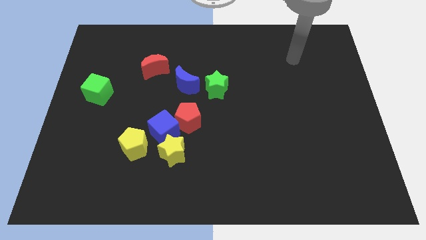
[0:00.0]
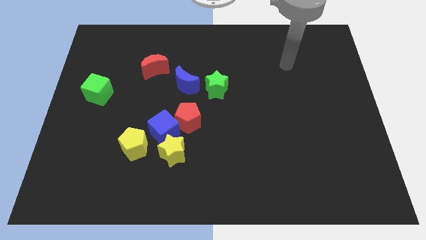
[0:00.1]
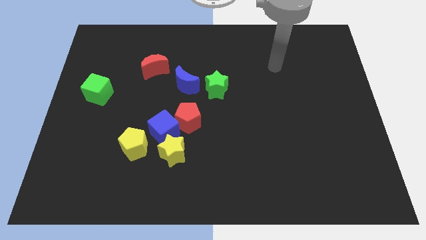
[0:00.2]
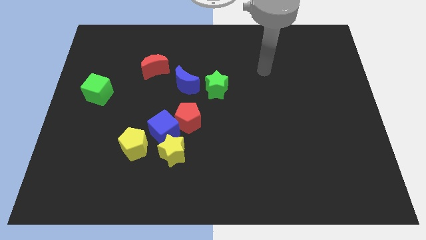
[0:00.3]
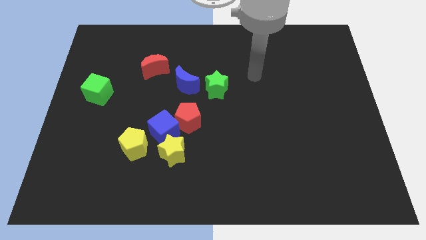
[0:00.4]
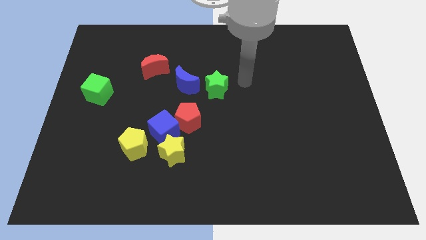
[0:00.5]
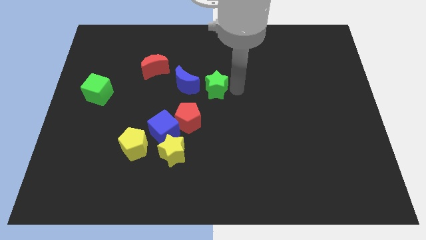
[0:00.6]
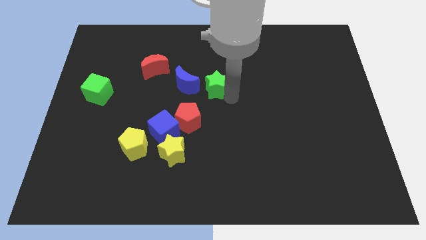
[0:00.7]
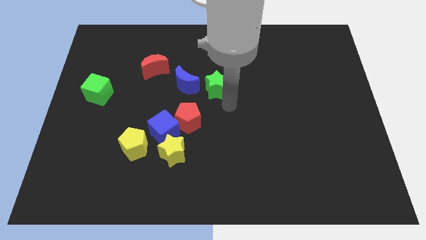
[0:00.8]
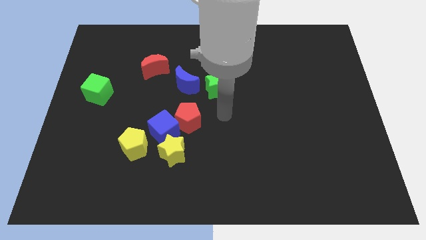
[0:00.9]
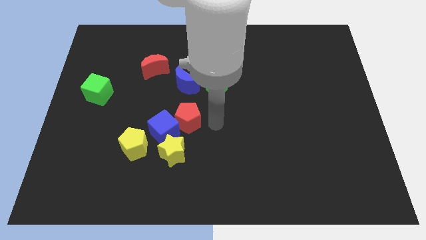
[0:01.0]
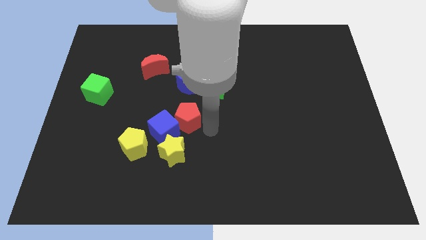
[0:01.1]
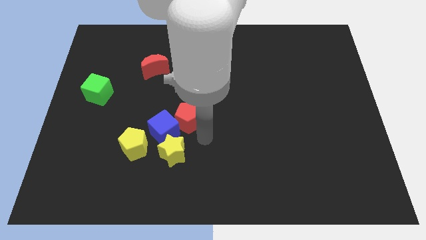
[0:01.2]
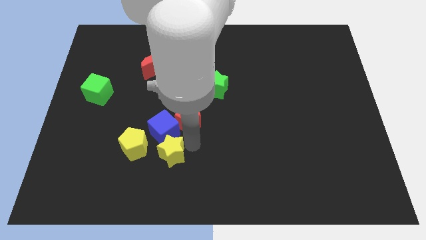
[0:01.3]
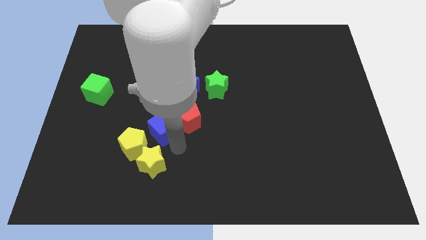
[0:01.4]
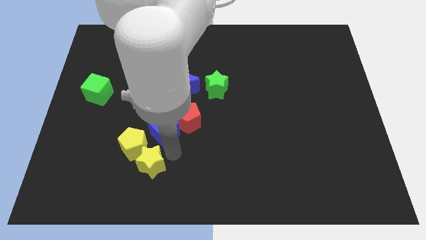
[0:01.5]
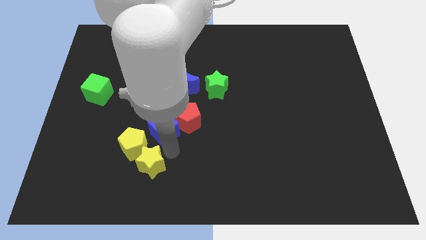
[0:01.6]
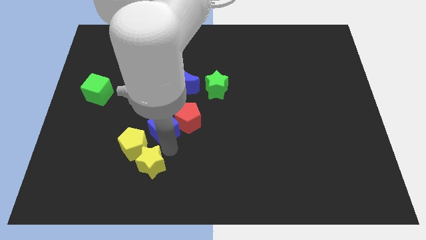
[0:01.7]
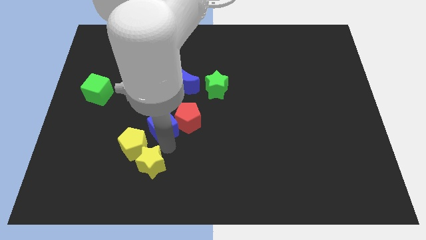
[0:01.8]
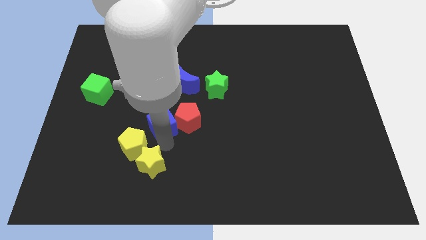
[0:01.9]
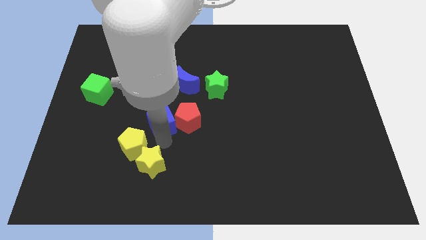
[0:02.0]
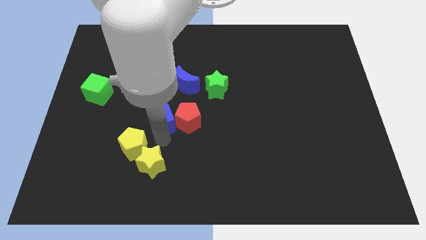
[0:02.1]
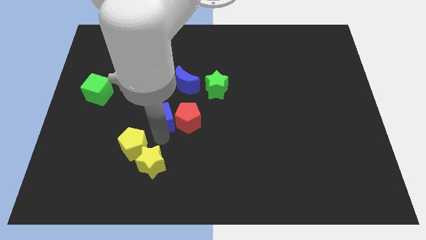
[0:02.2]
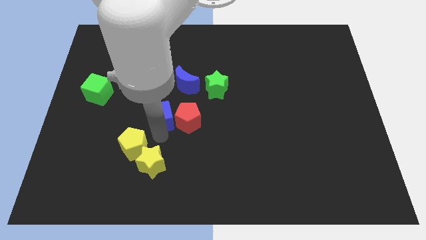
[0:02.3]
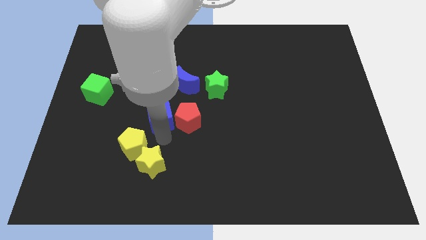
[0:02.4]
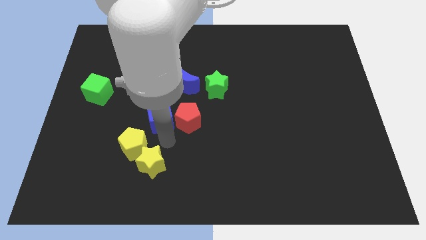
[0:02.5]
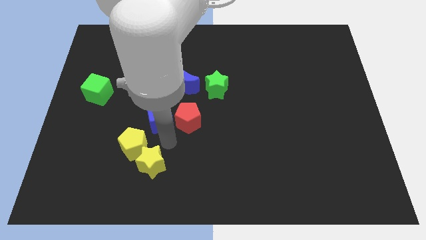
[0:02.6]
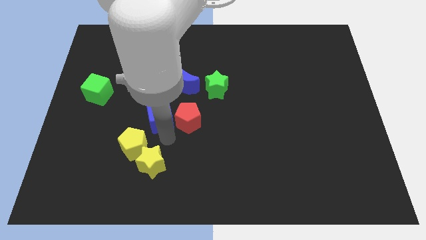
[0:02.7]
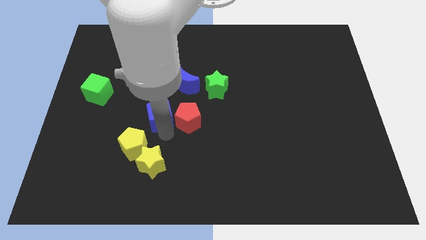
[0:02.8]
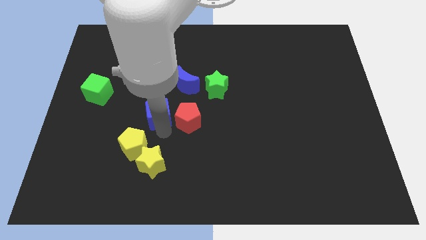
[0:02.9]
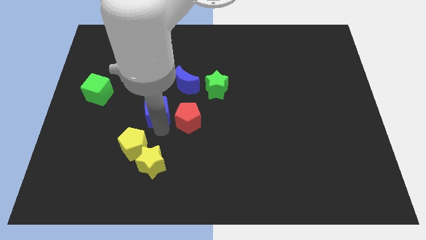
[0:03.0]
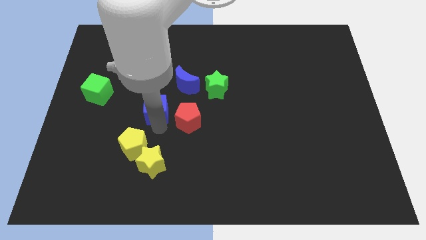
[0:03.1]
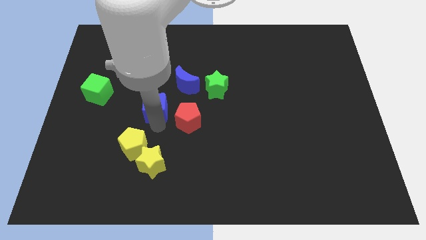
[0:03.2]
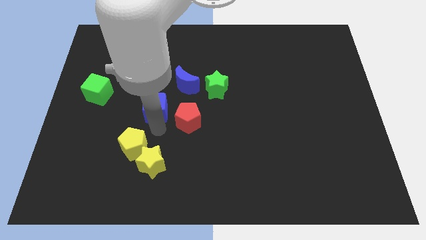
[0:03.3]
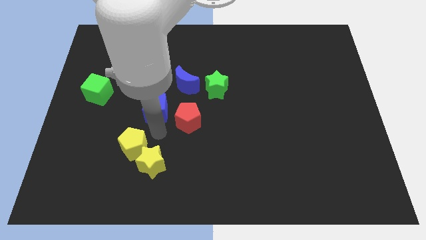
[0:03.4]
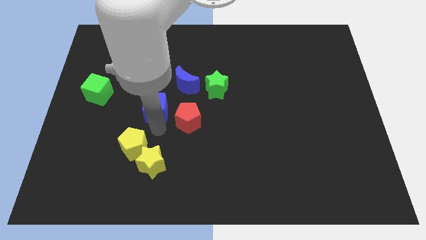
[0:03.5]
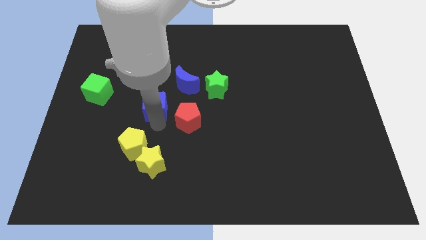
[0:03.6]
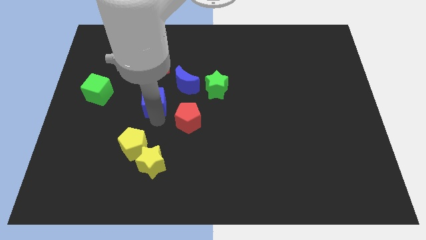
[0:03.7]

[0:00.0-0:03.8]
move the blue cube away from the group

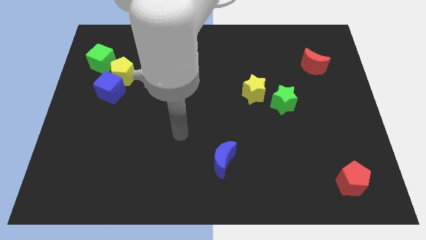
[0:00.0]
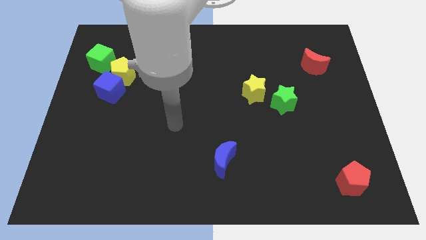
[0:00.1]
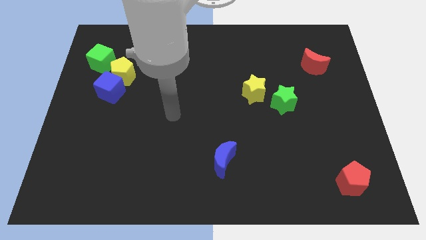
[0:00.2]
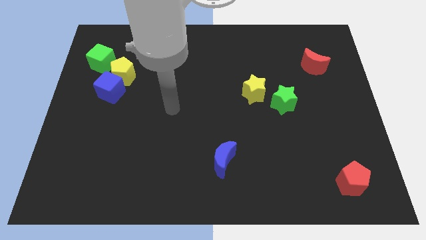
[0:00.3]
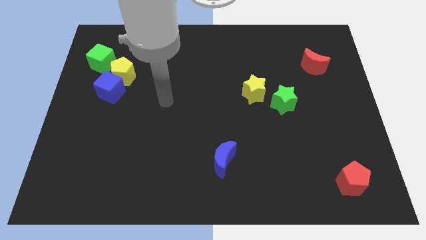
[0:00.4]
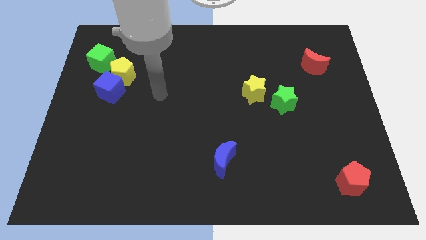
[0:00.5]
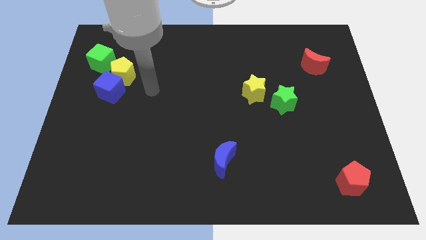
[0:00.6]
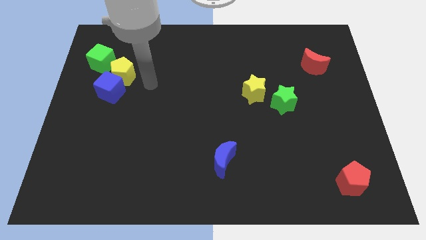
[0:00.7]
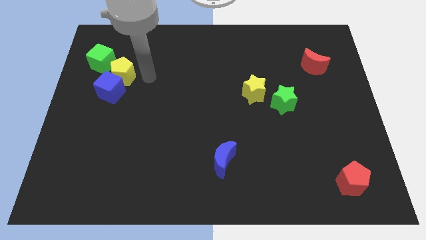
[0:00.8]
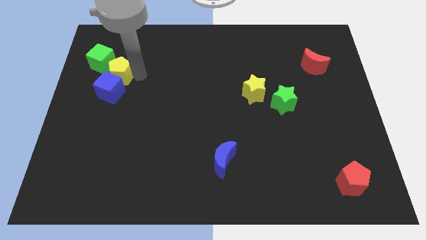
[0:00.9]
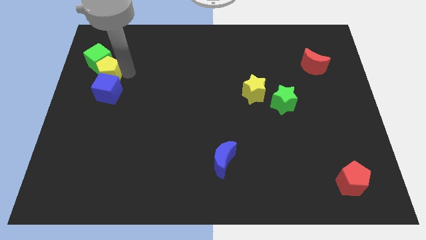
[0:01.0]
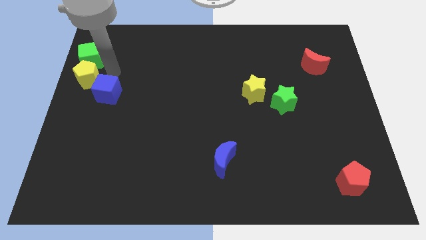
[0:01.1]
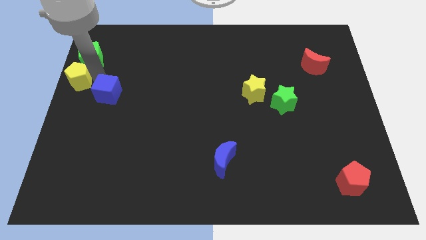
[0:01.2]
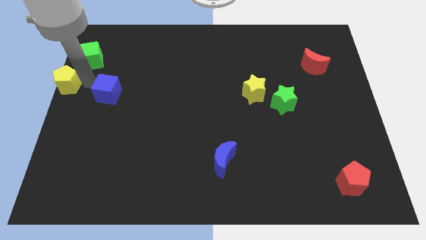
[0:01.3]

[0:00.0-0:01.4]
pull the blue cube apart from the yellow pentagon

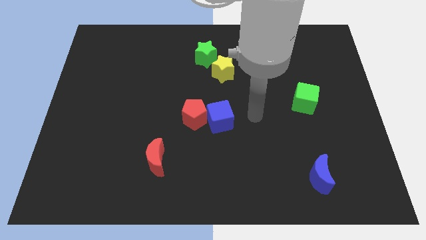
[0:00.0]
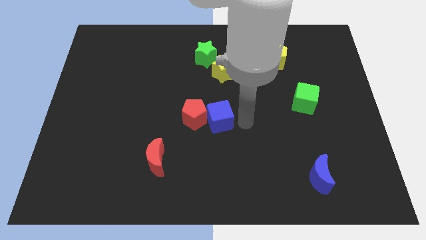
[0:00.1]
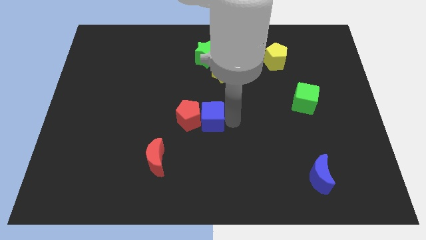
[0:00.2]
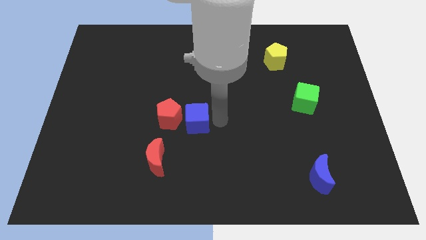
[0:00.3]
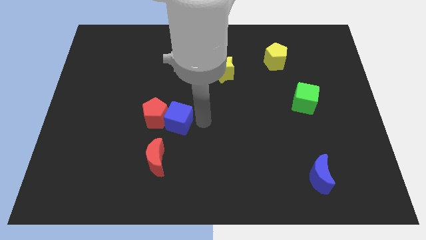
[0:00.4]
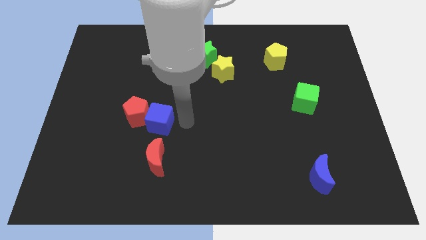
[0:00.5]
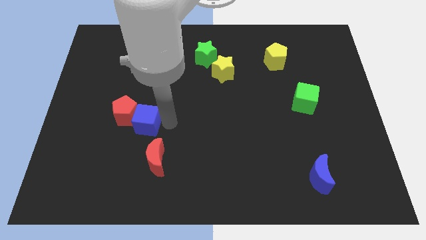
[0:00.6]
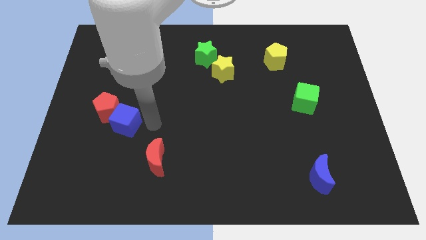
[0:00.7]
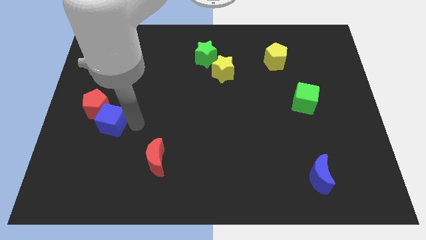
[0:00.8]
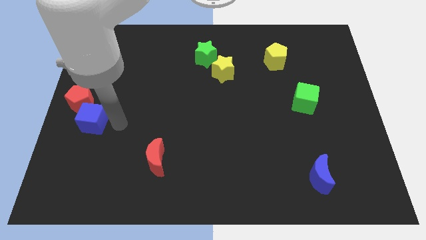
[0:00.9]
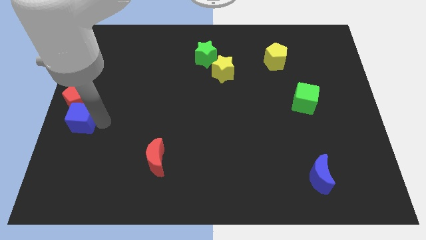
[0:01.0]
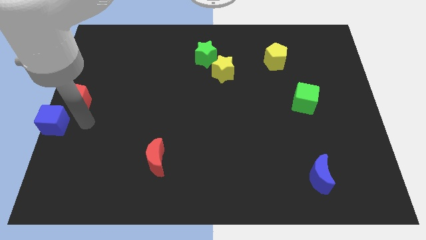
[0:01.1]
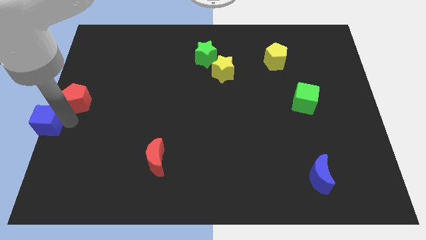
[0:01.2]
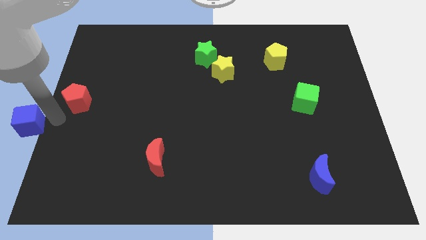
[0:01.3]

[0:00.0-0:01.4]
pull the red pentagon apart from the blue cube

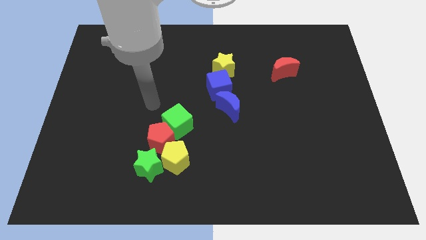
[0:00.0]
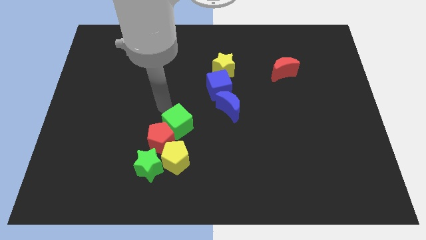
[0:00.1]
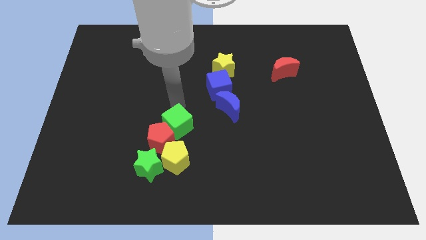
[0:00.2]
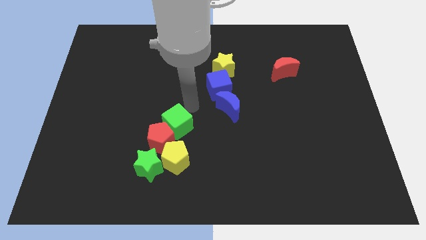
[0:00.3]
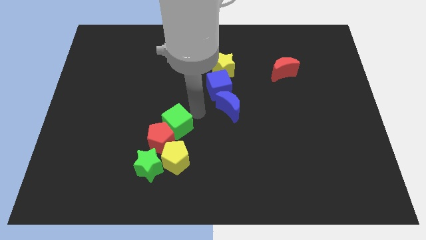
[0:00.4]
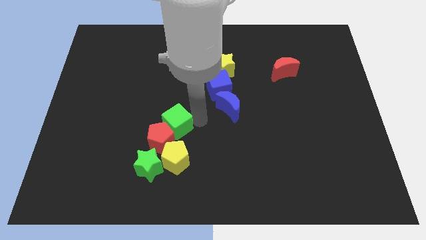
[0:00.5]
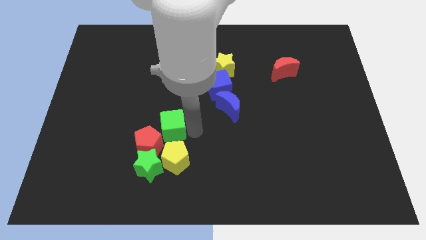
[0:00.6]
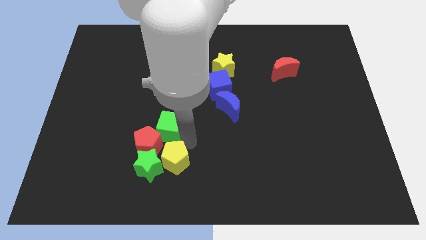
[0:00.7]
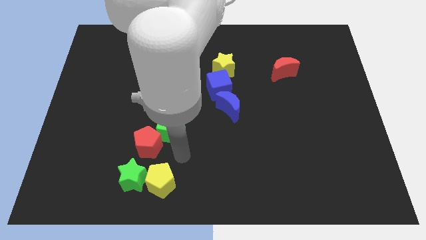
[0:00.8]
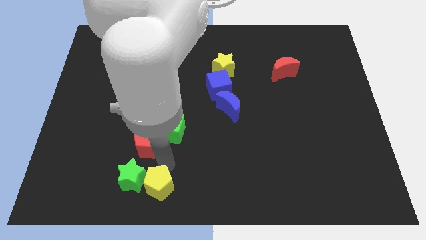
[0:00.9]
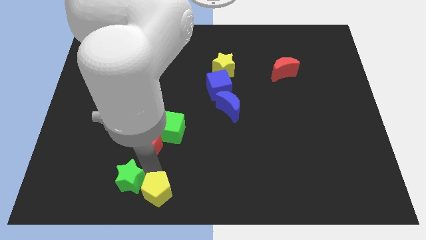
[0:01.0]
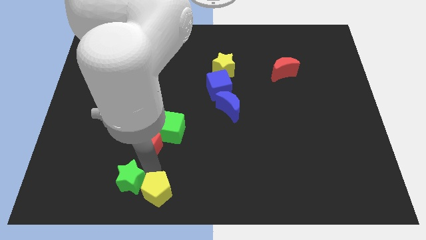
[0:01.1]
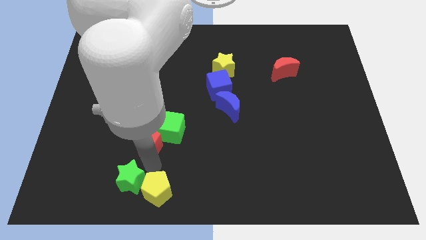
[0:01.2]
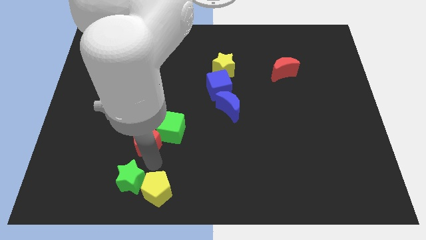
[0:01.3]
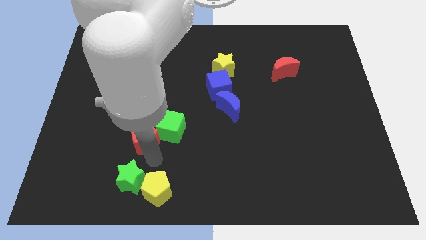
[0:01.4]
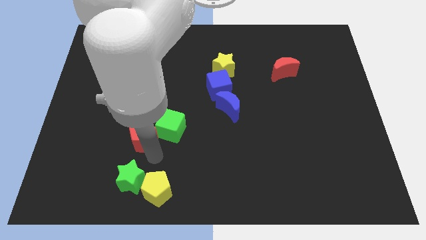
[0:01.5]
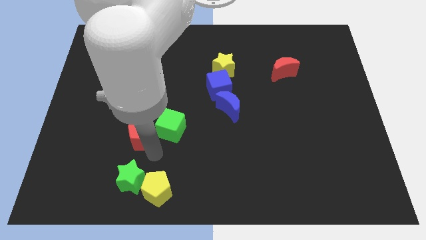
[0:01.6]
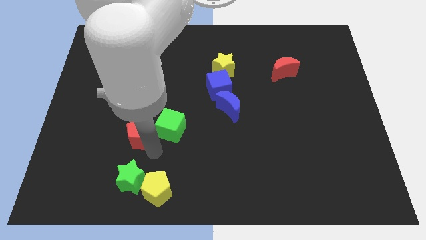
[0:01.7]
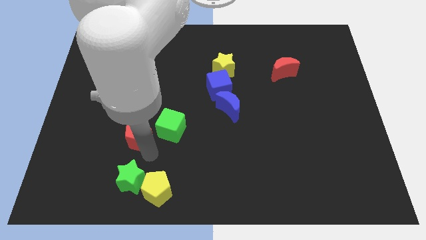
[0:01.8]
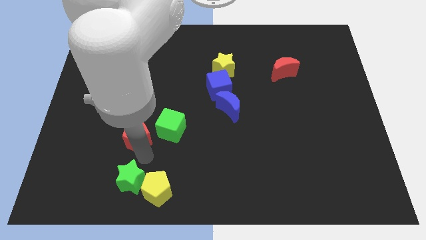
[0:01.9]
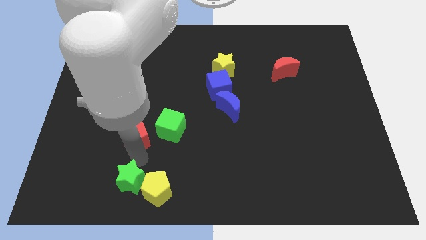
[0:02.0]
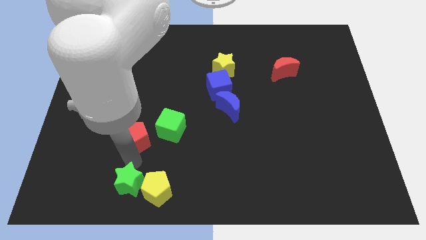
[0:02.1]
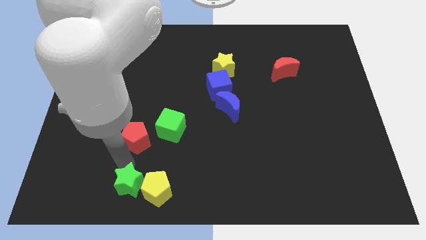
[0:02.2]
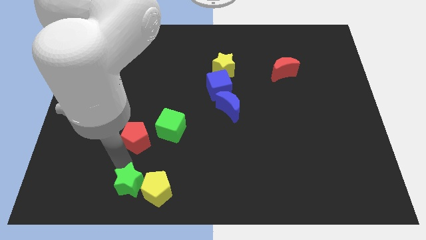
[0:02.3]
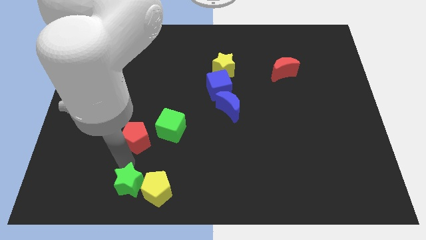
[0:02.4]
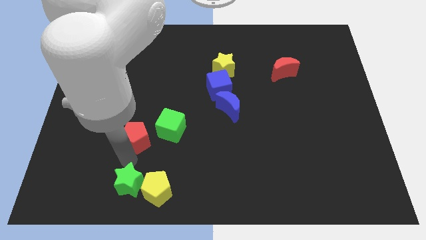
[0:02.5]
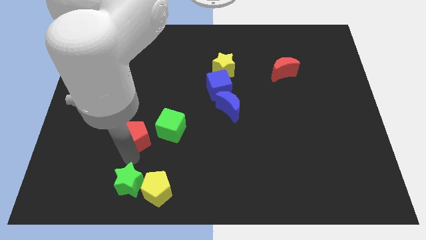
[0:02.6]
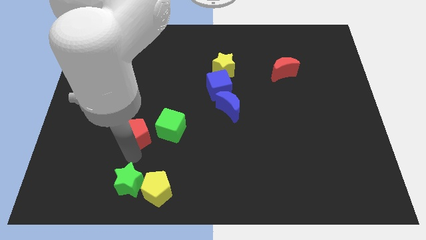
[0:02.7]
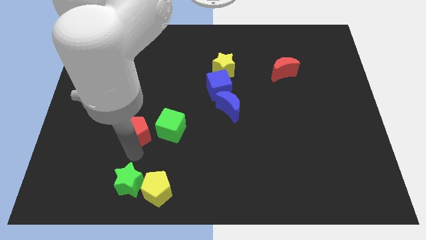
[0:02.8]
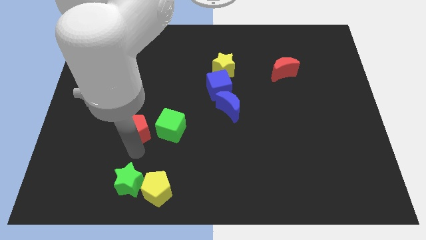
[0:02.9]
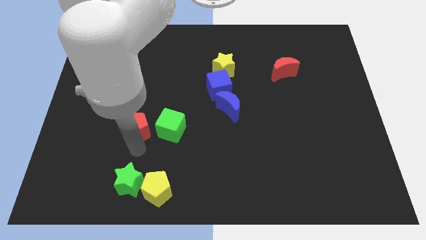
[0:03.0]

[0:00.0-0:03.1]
separate the red pentagon from the group
